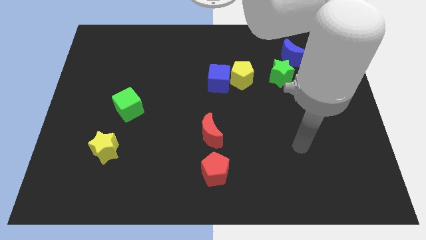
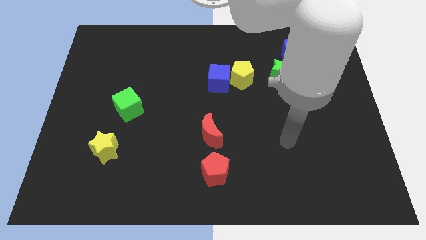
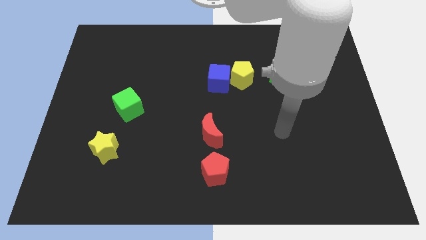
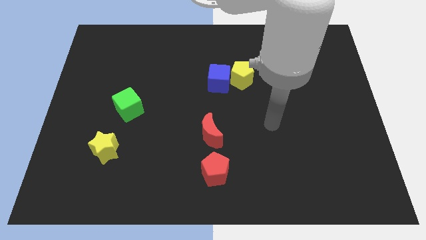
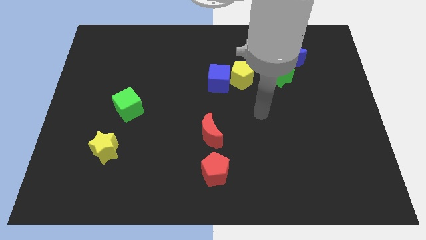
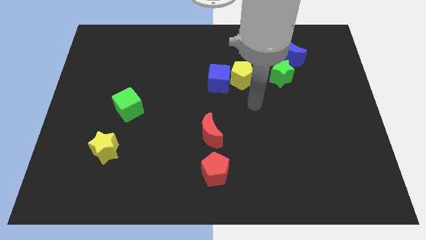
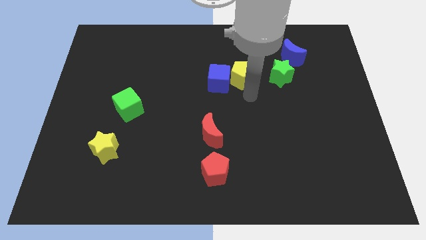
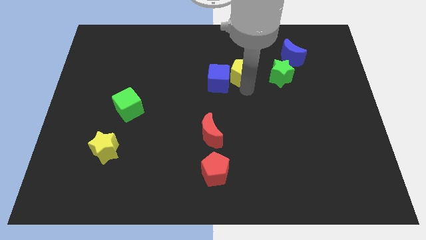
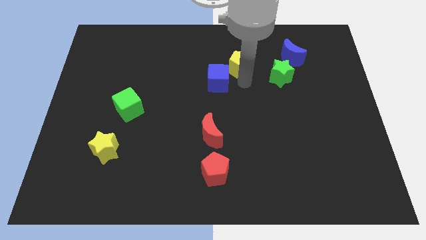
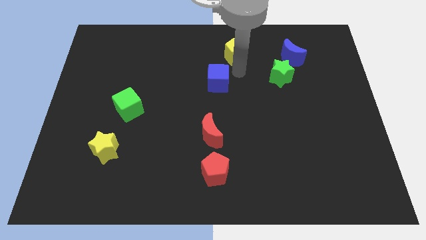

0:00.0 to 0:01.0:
move the blue cube away from the yellow pentagon

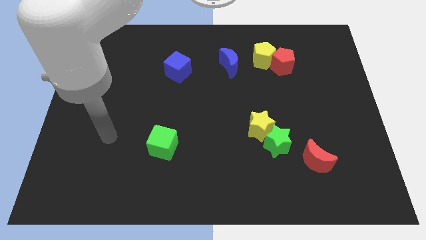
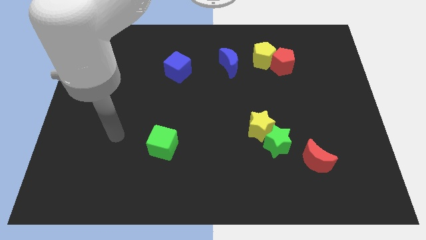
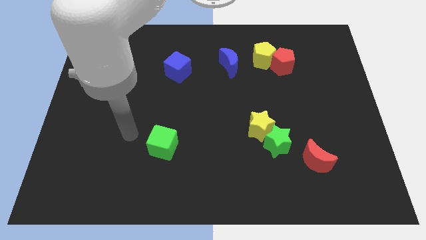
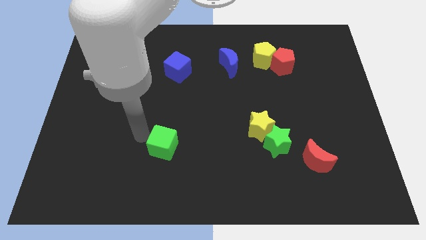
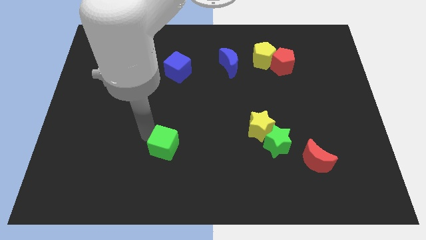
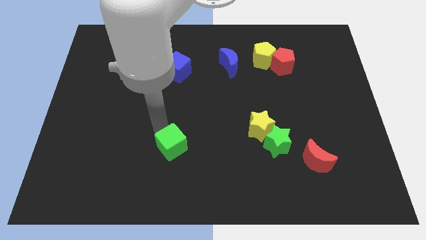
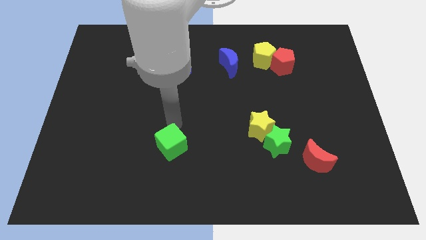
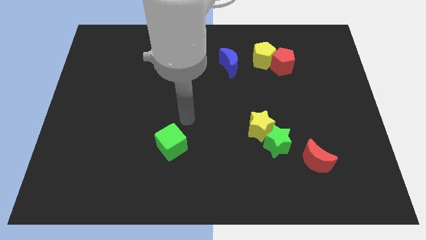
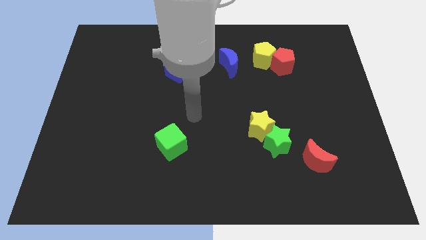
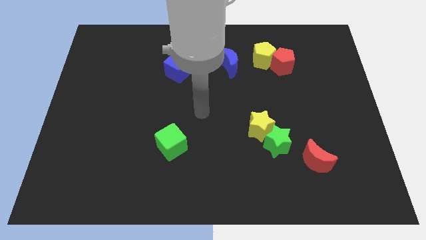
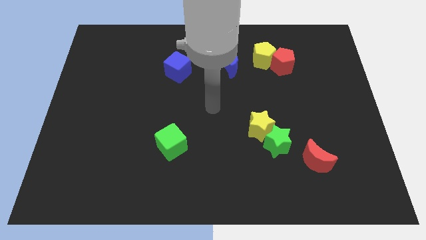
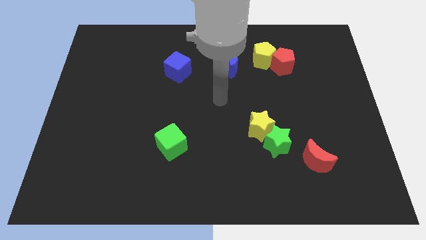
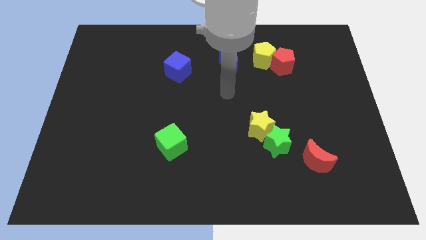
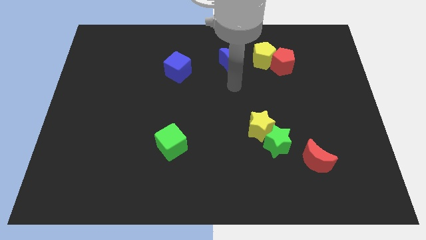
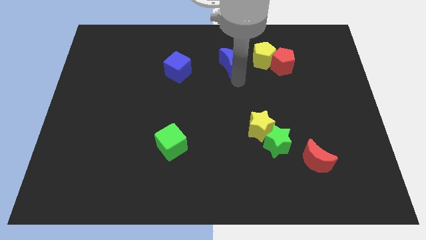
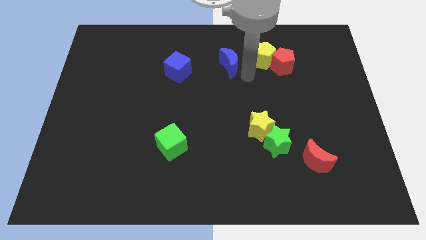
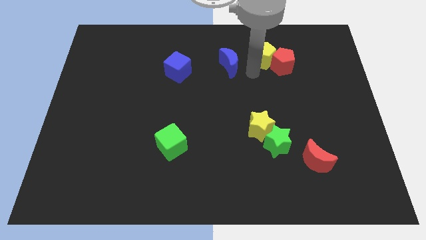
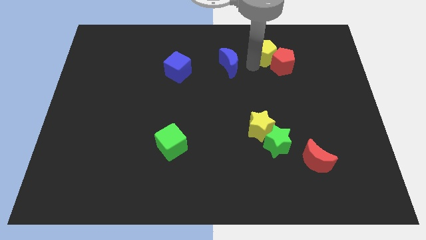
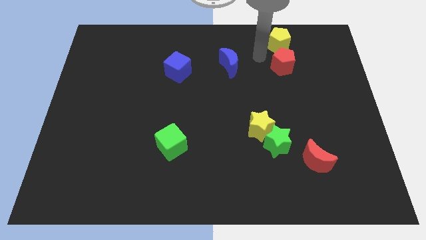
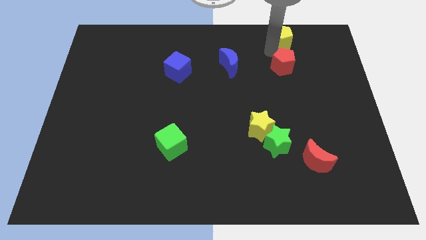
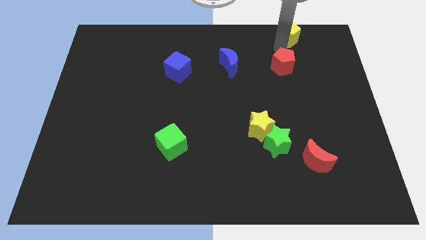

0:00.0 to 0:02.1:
pull the red pentagon apart from the yellow pentagon

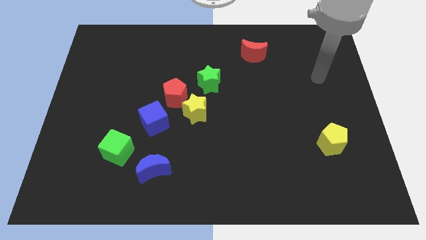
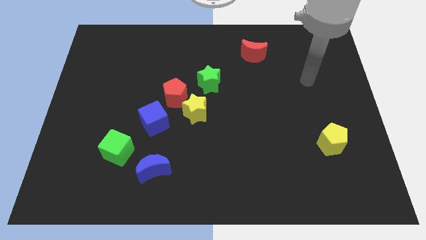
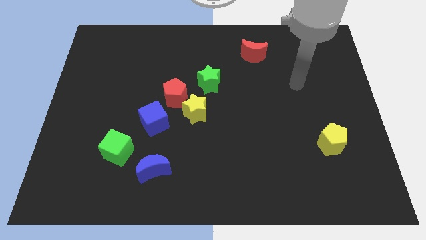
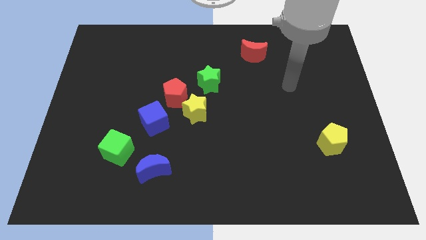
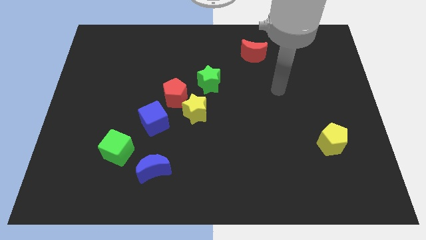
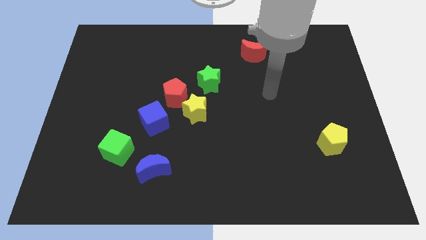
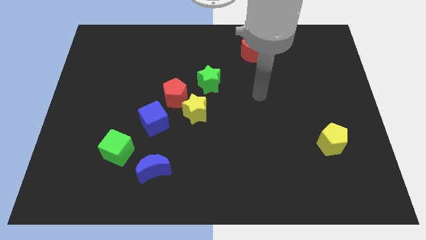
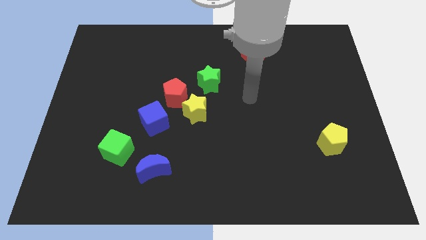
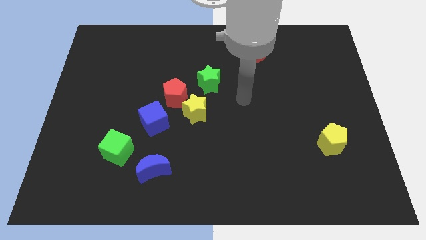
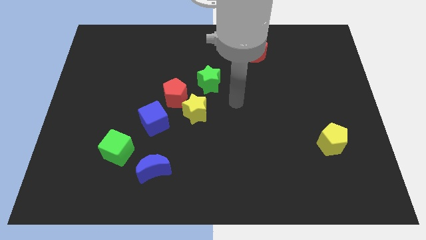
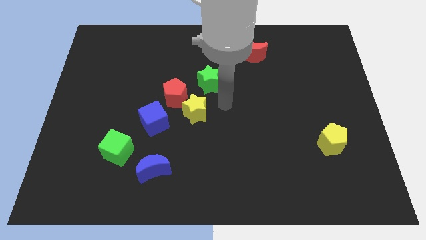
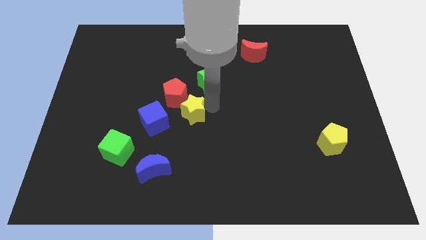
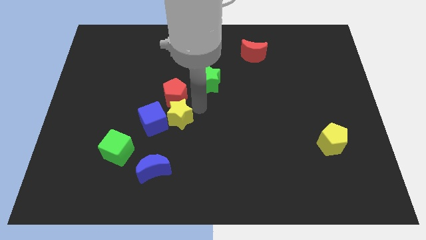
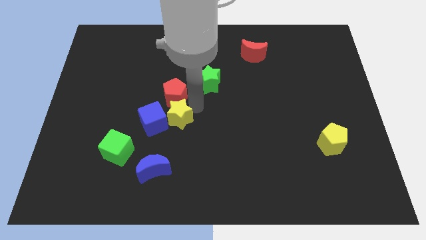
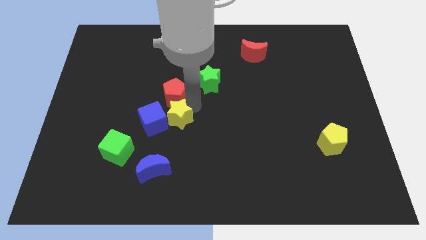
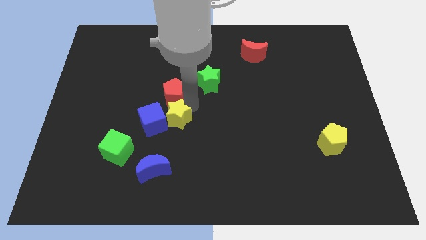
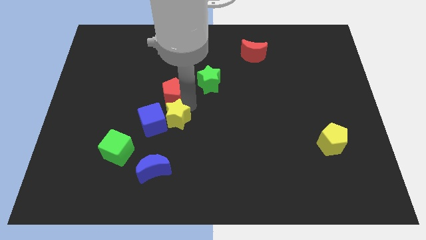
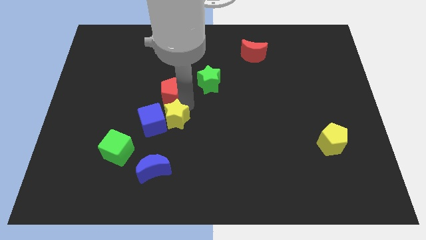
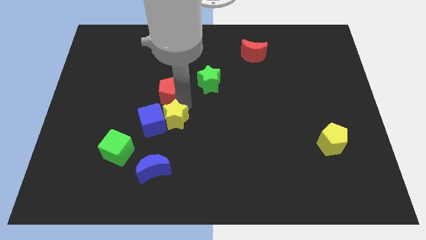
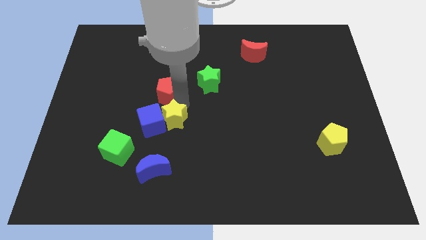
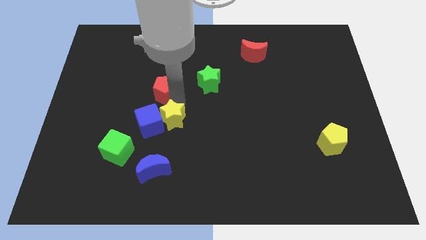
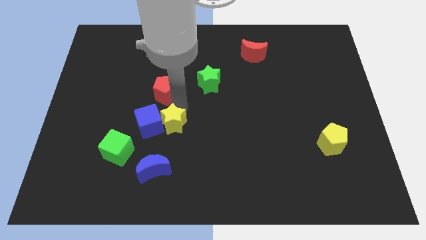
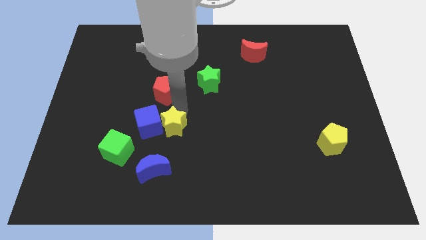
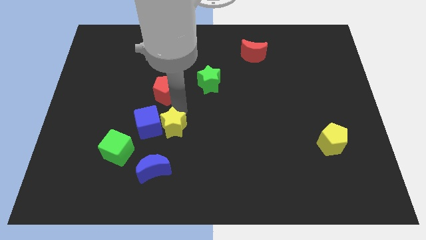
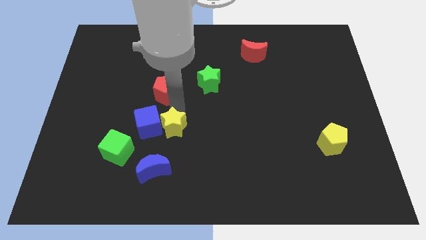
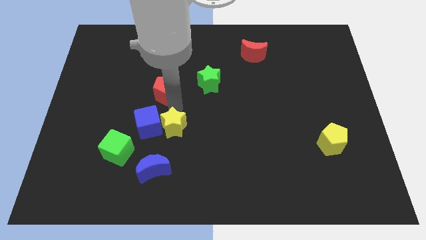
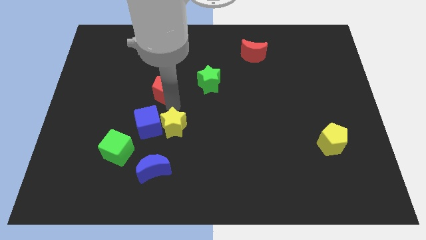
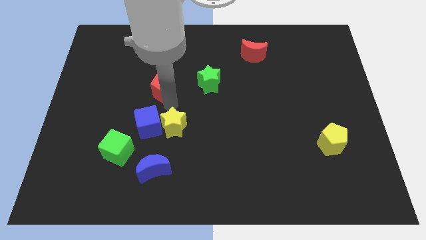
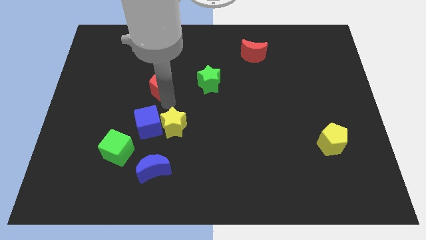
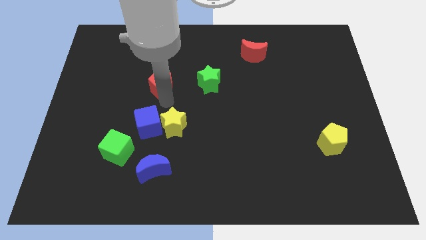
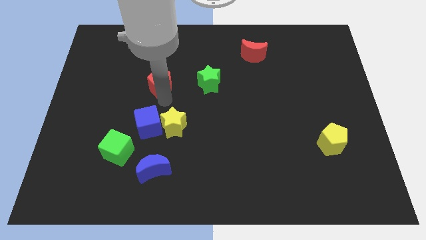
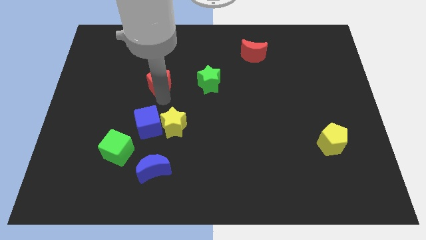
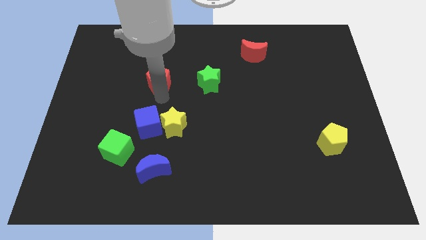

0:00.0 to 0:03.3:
separate the red pentagon from the yellow star, blue cube, and green star

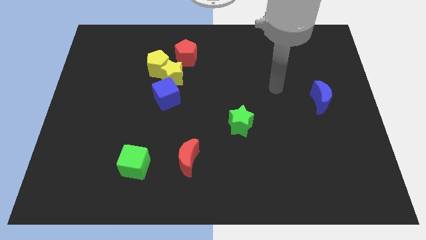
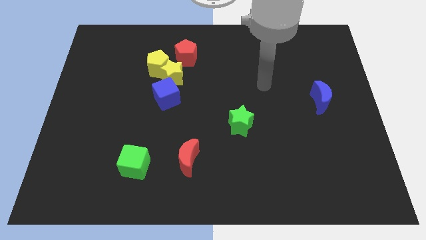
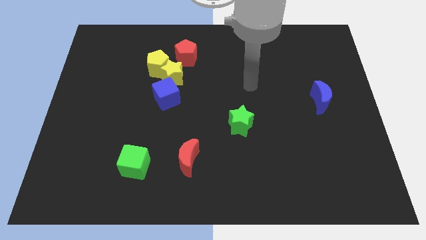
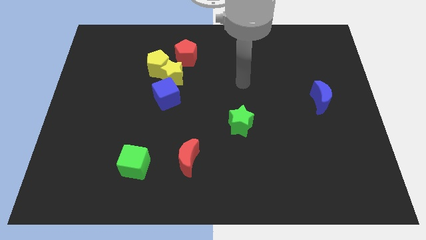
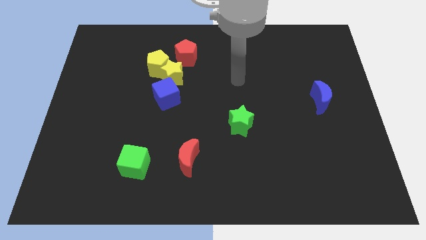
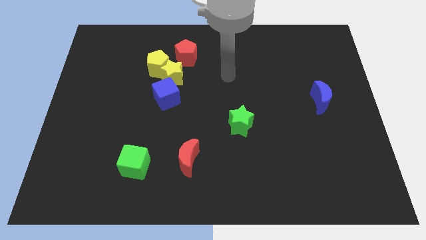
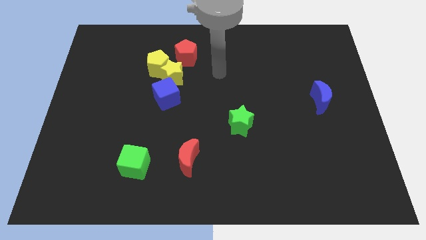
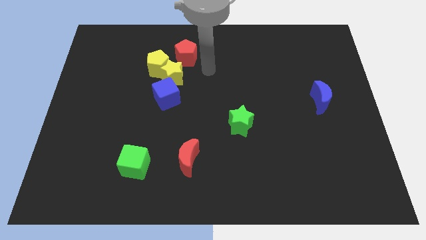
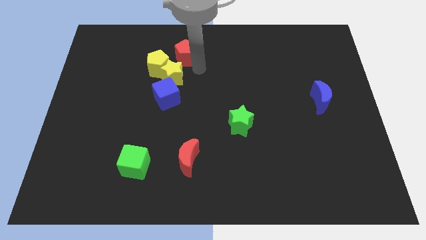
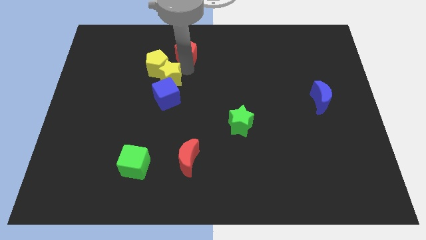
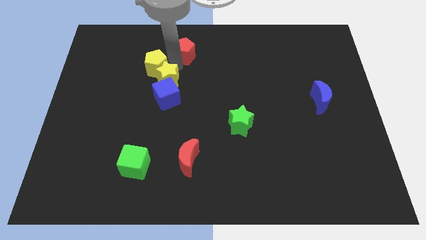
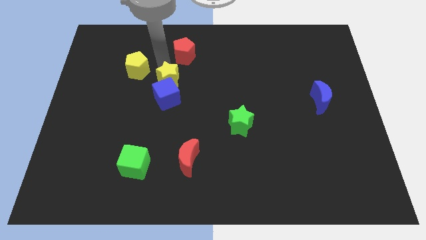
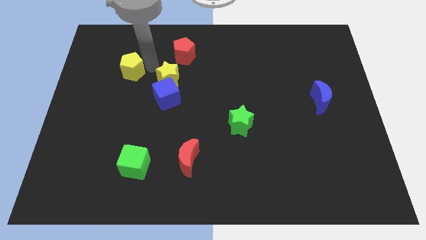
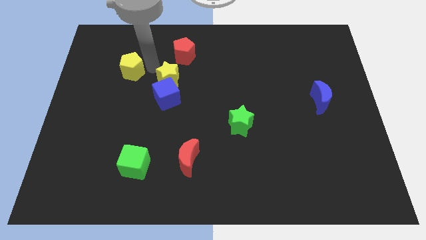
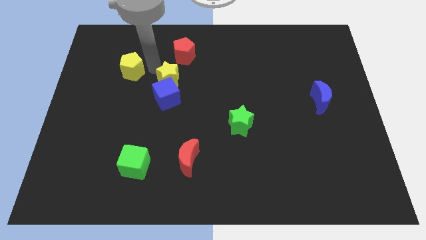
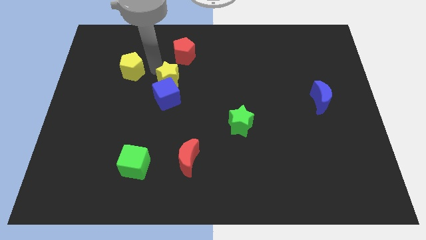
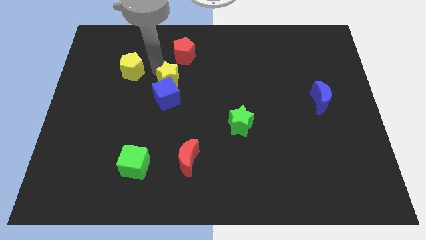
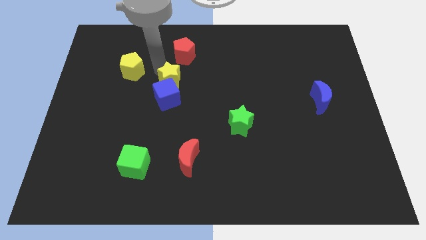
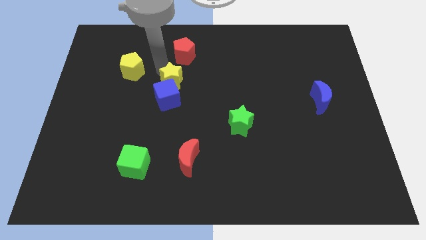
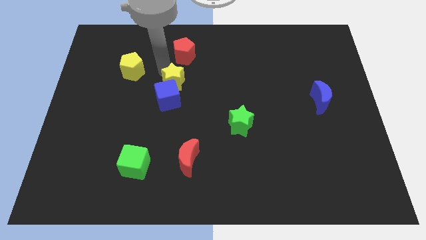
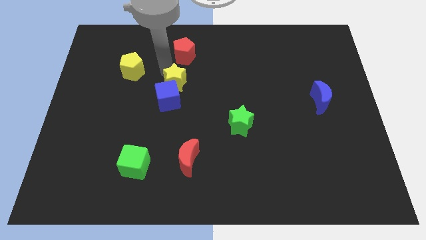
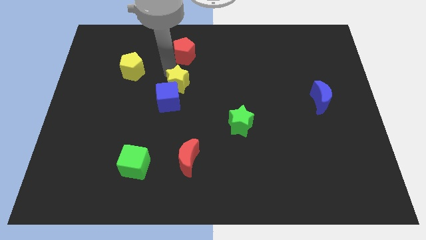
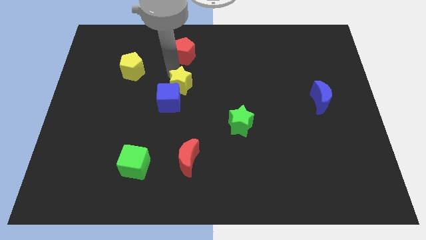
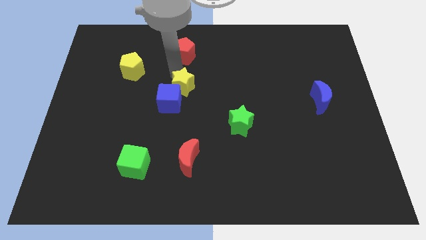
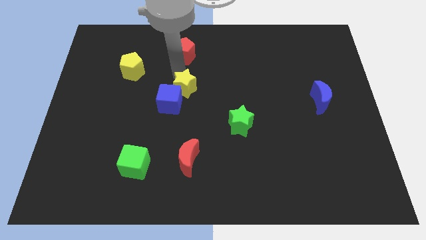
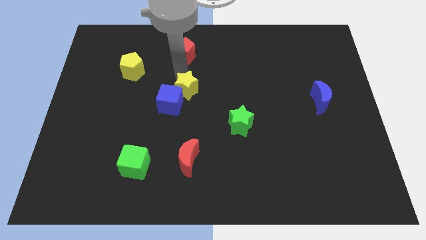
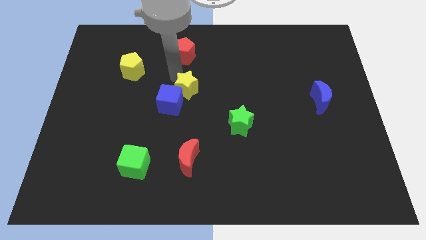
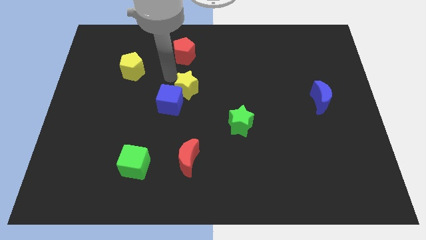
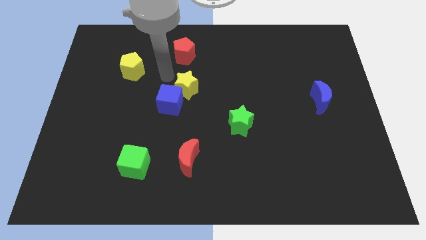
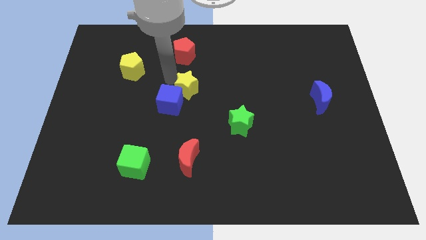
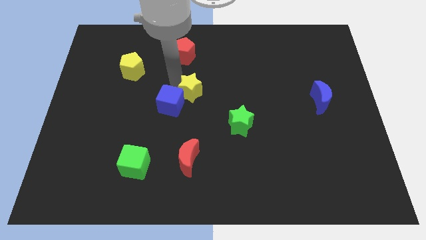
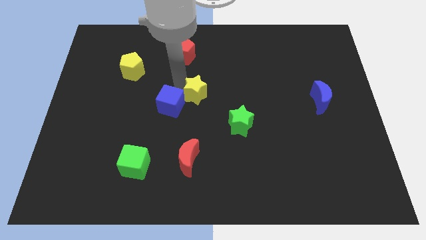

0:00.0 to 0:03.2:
separate the yellow star from the yellow pentagon, blue cube, and red pentagon
